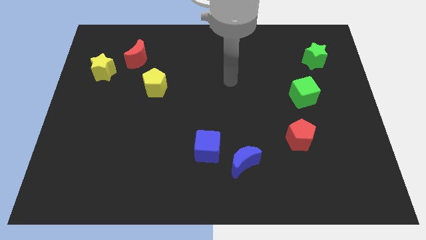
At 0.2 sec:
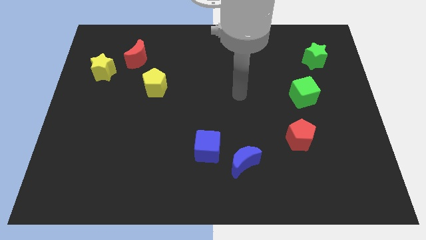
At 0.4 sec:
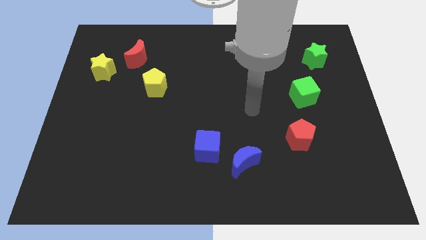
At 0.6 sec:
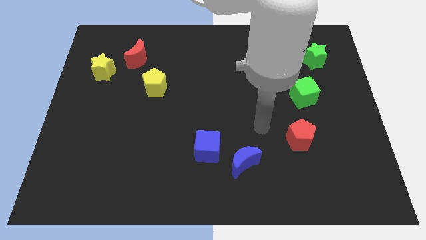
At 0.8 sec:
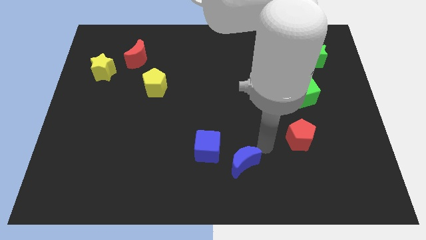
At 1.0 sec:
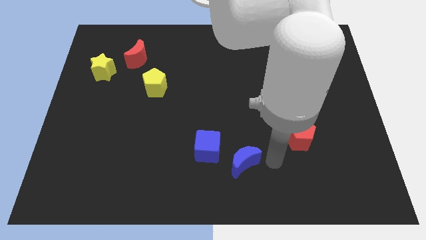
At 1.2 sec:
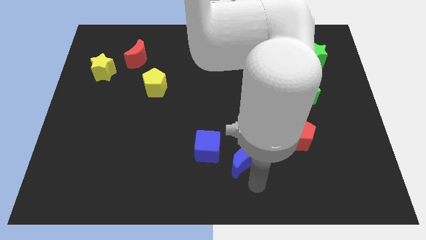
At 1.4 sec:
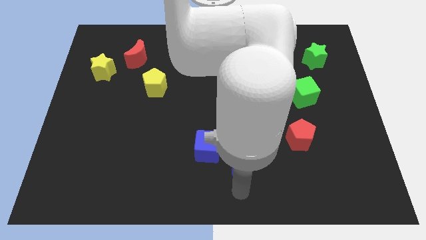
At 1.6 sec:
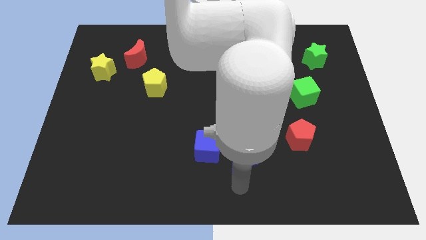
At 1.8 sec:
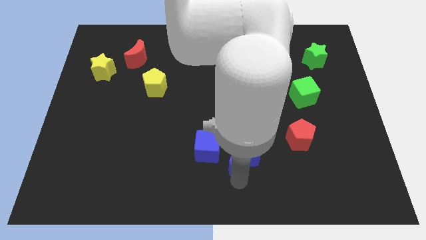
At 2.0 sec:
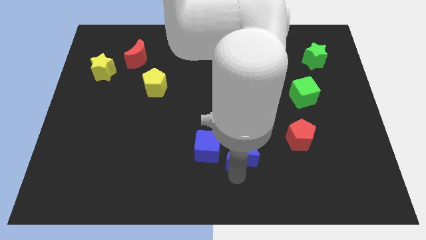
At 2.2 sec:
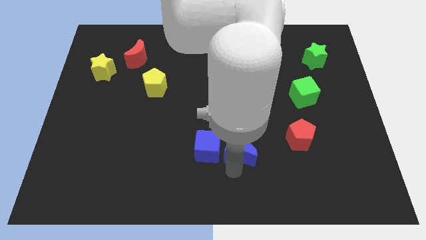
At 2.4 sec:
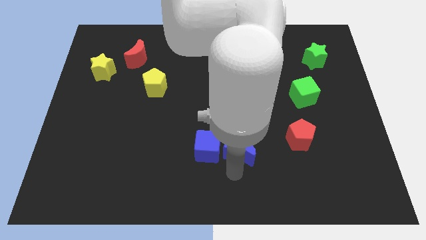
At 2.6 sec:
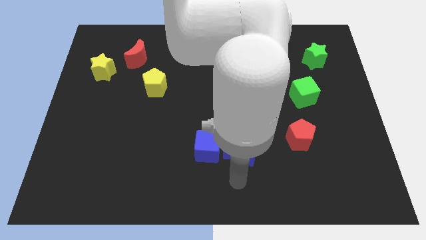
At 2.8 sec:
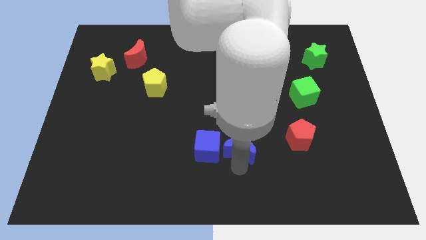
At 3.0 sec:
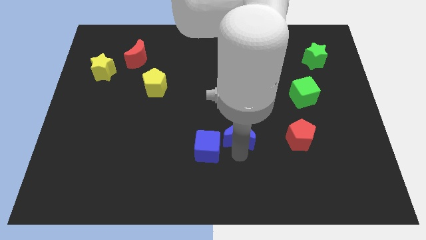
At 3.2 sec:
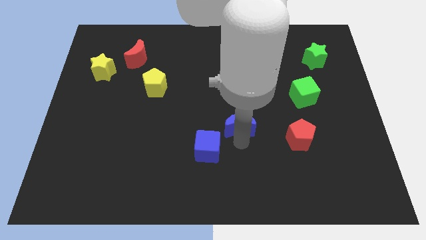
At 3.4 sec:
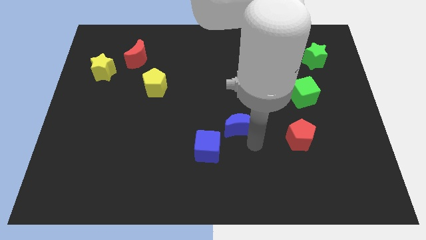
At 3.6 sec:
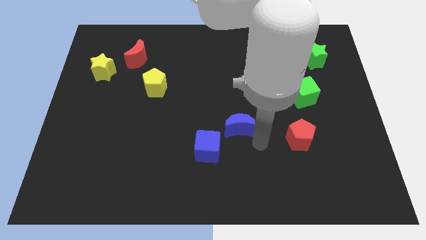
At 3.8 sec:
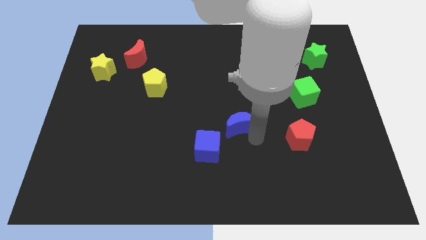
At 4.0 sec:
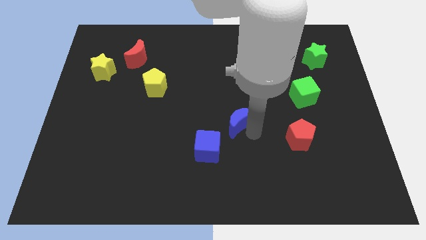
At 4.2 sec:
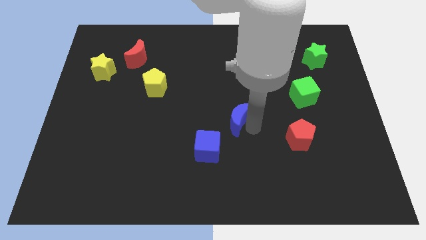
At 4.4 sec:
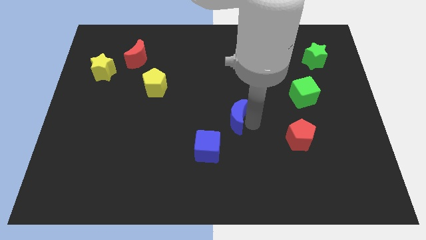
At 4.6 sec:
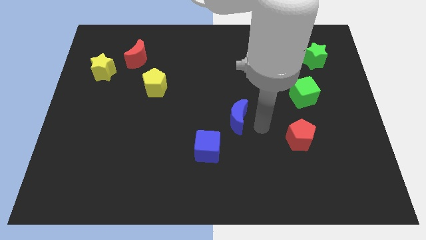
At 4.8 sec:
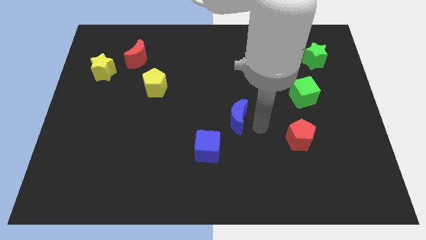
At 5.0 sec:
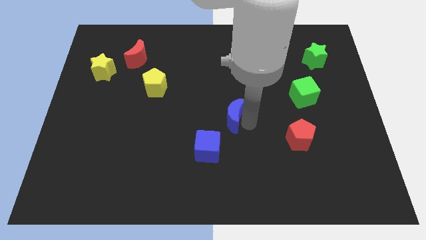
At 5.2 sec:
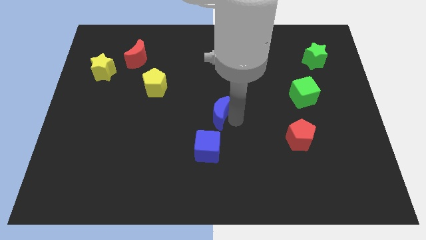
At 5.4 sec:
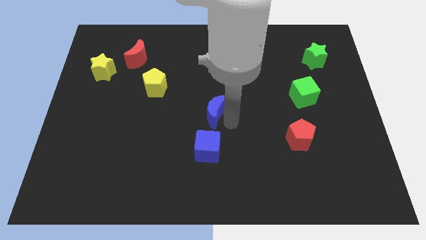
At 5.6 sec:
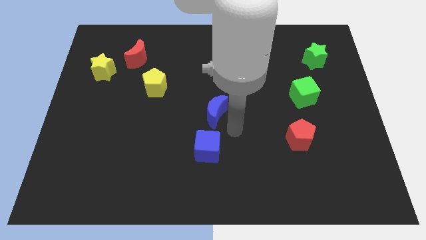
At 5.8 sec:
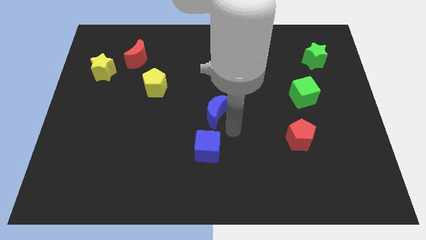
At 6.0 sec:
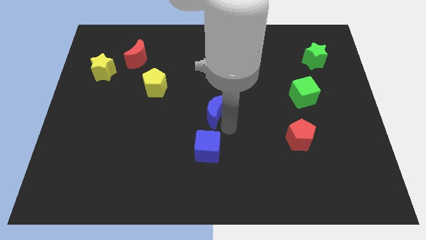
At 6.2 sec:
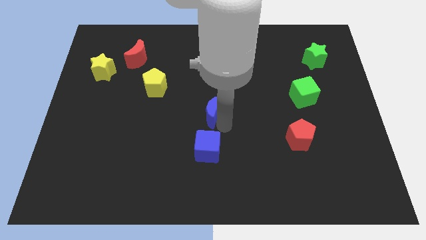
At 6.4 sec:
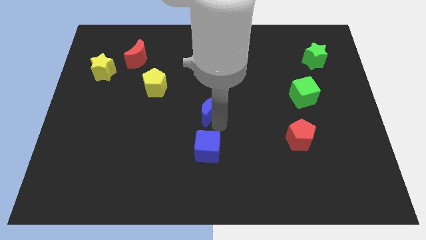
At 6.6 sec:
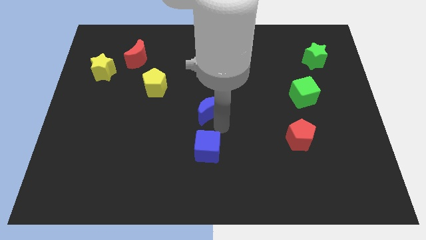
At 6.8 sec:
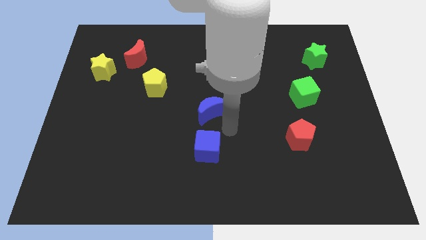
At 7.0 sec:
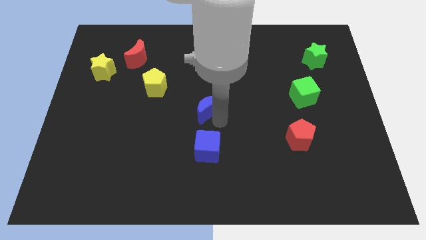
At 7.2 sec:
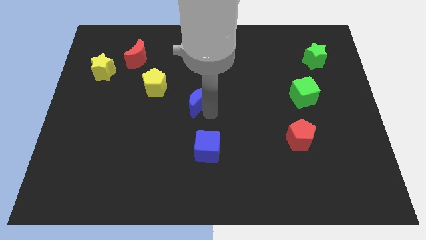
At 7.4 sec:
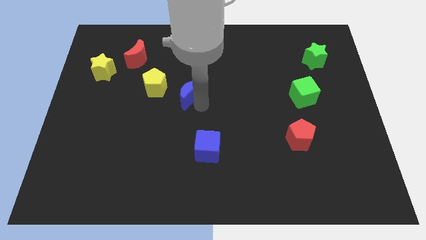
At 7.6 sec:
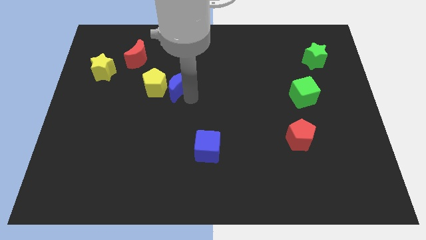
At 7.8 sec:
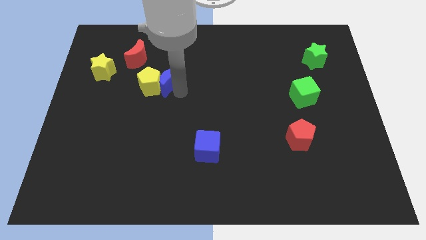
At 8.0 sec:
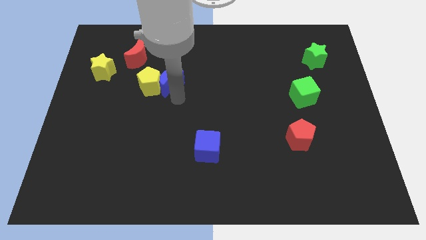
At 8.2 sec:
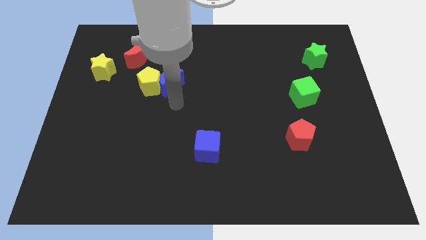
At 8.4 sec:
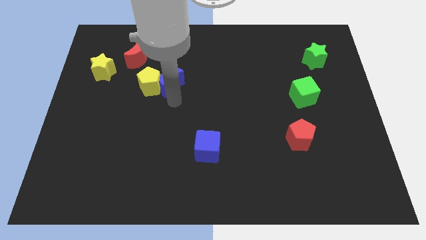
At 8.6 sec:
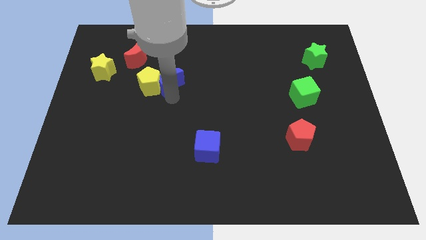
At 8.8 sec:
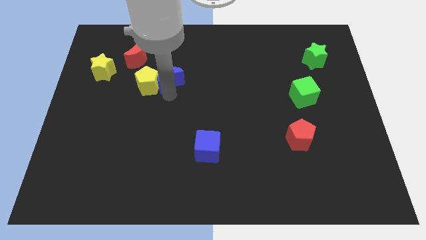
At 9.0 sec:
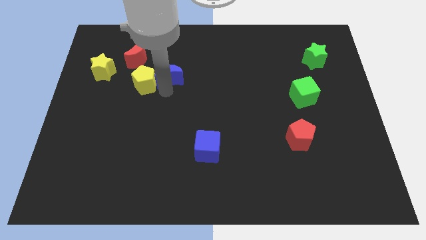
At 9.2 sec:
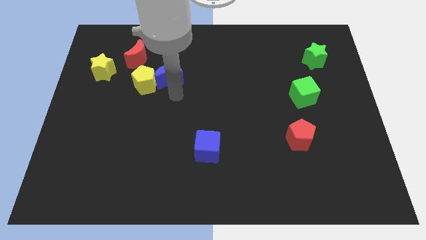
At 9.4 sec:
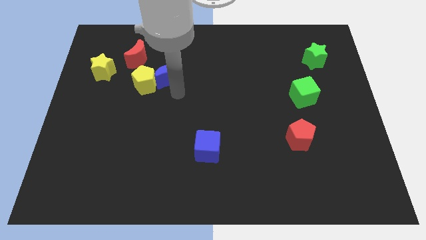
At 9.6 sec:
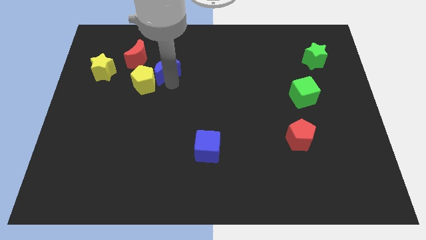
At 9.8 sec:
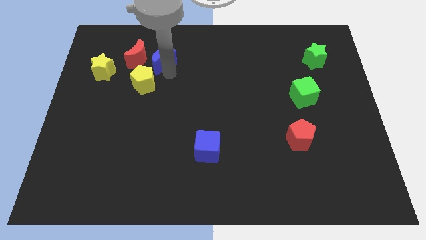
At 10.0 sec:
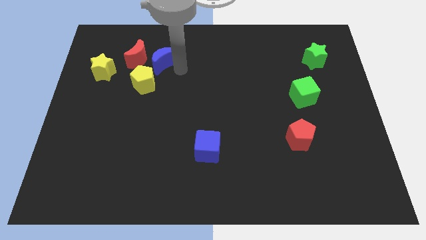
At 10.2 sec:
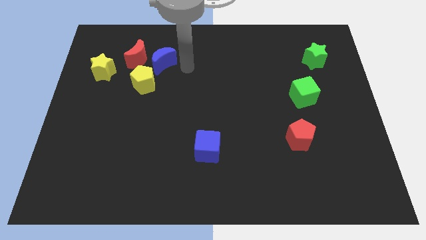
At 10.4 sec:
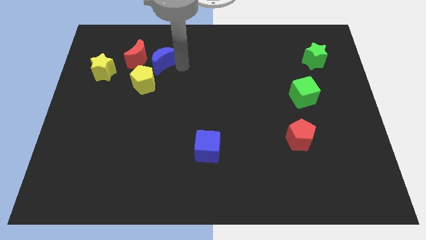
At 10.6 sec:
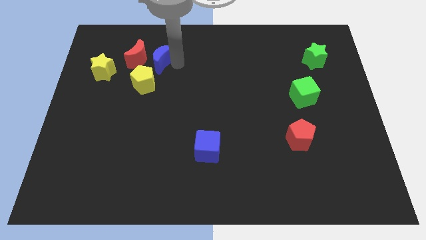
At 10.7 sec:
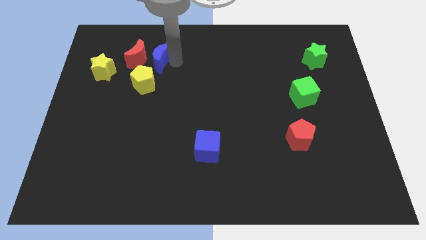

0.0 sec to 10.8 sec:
move the blue moon to the red moon

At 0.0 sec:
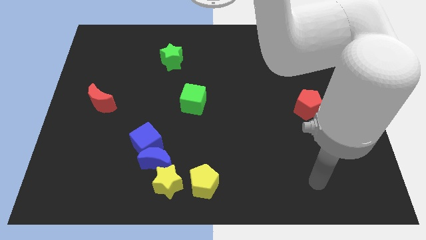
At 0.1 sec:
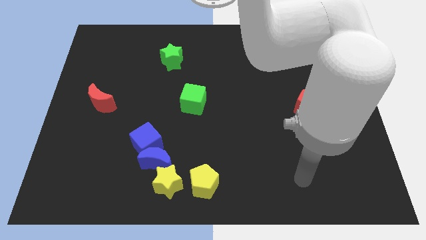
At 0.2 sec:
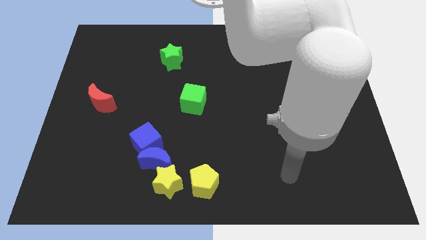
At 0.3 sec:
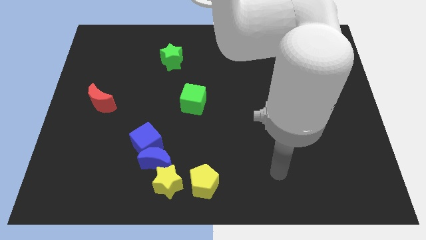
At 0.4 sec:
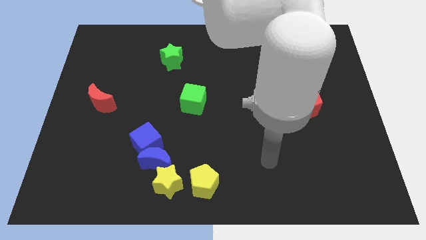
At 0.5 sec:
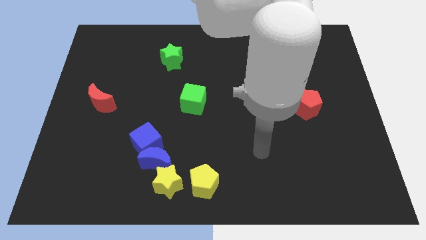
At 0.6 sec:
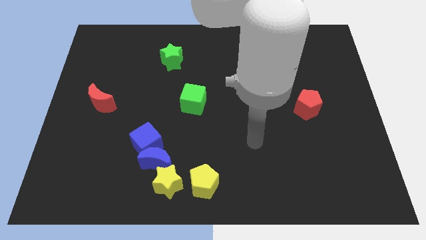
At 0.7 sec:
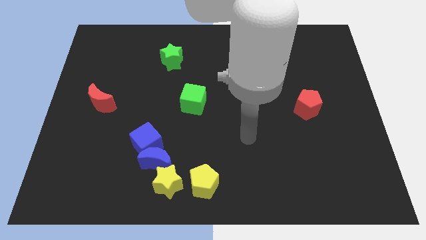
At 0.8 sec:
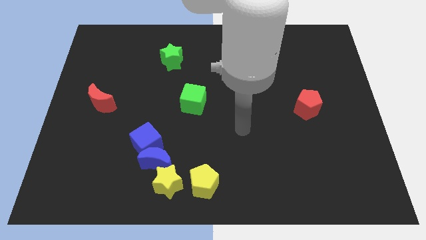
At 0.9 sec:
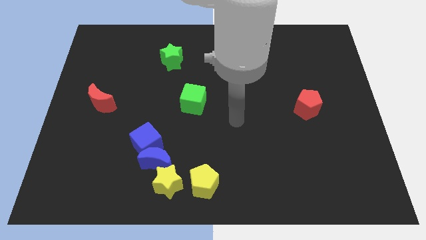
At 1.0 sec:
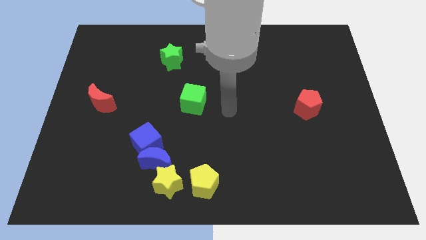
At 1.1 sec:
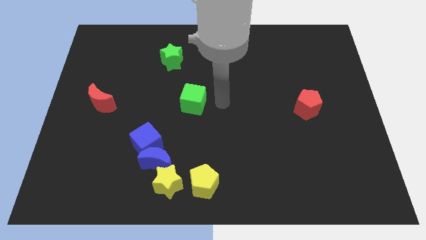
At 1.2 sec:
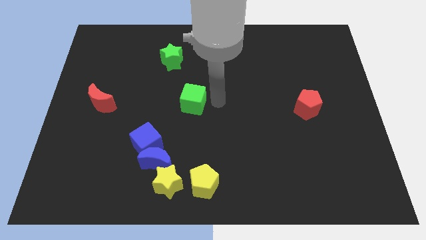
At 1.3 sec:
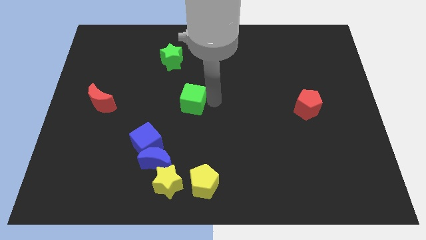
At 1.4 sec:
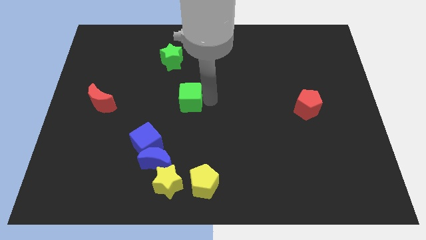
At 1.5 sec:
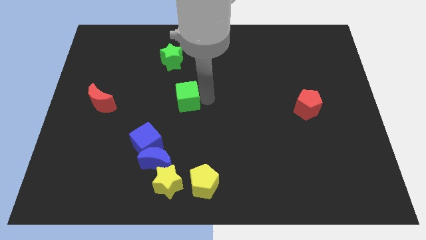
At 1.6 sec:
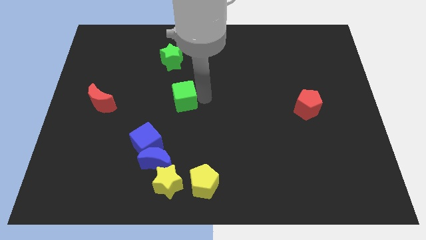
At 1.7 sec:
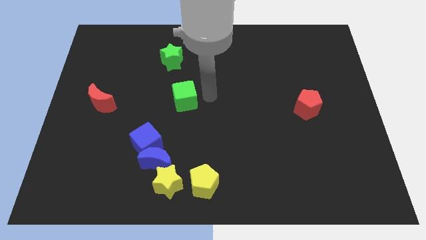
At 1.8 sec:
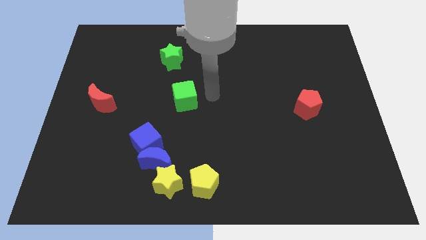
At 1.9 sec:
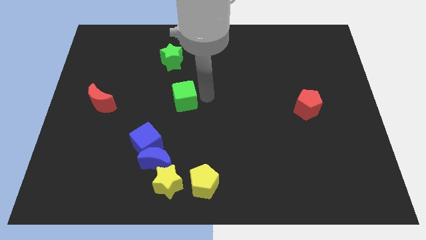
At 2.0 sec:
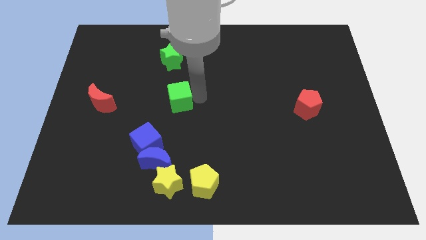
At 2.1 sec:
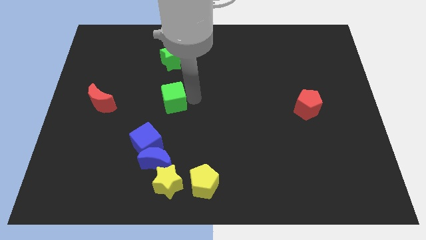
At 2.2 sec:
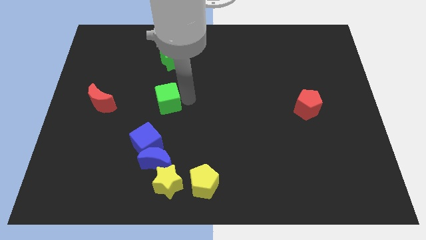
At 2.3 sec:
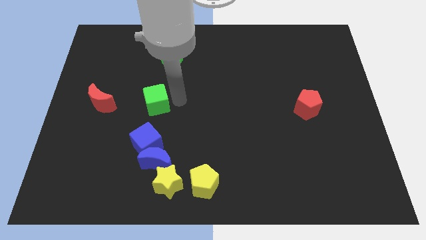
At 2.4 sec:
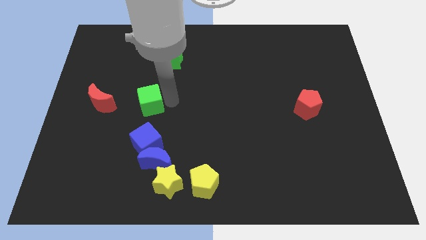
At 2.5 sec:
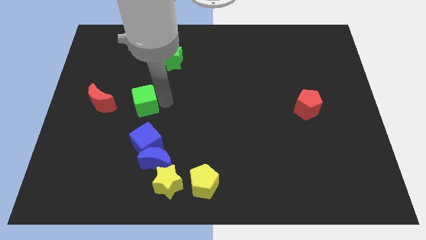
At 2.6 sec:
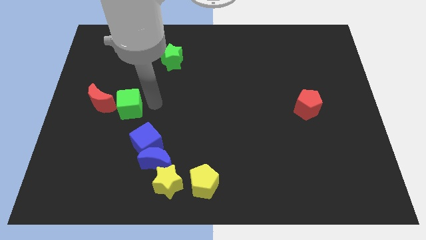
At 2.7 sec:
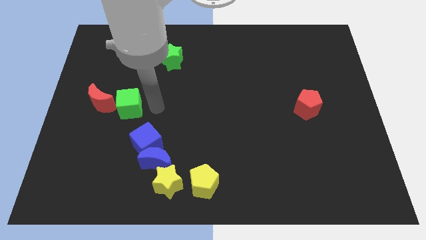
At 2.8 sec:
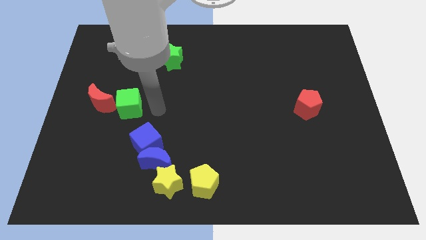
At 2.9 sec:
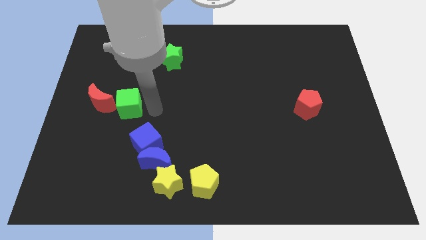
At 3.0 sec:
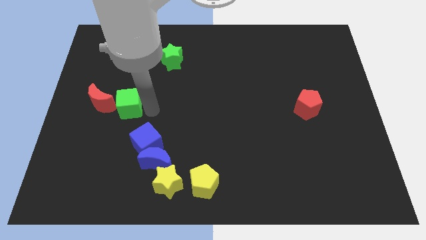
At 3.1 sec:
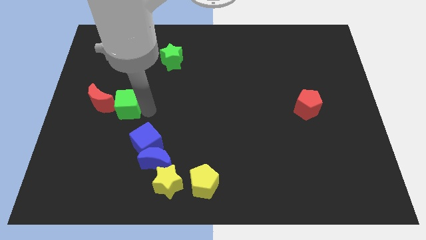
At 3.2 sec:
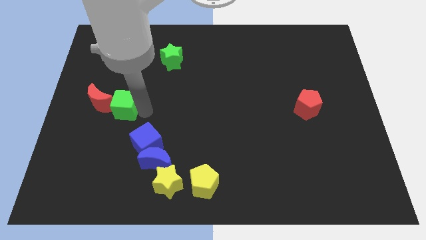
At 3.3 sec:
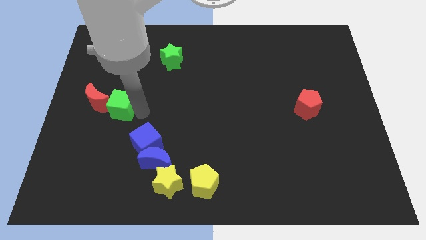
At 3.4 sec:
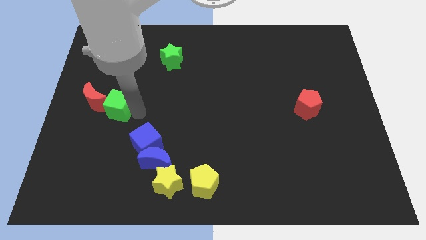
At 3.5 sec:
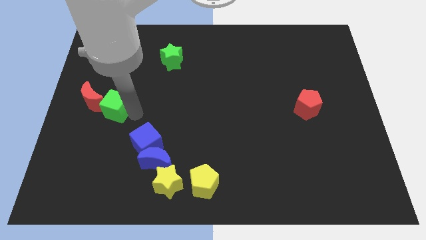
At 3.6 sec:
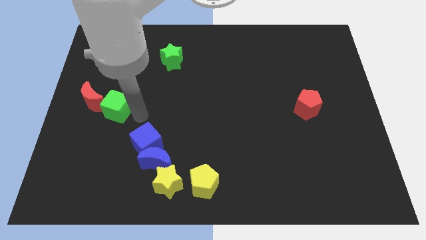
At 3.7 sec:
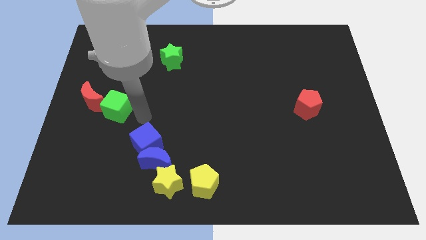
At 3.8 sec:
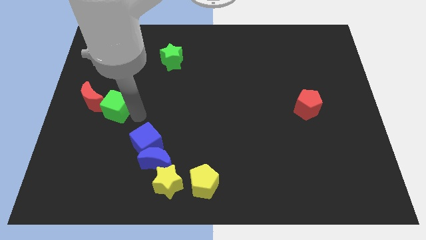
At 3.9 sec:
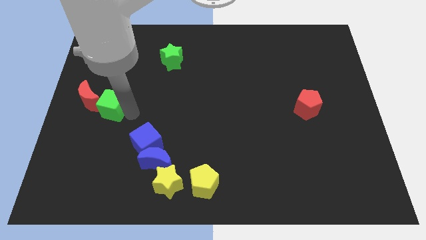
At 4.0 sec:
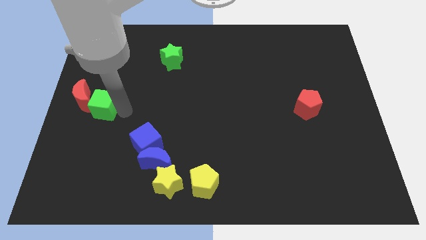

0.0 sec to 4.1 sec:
move the green cube close to the red moon
